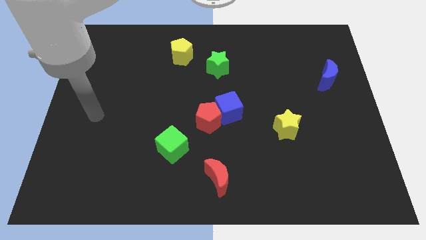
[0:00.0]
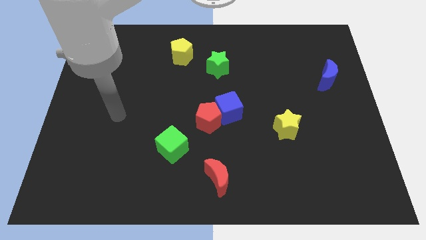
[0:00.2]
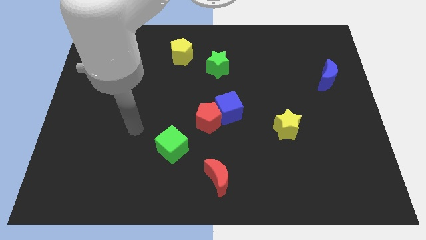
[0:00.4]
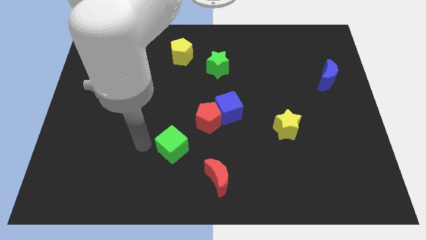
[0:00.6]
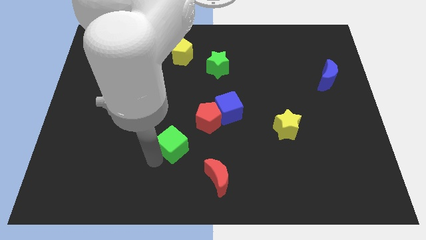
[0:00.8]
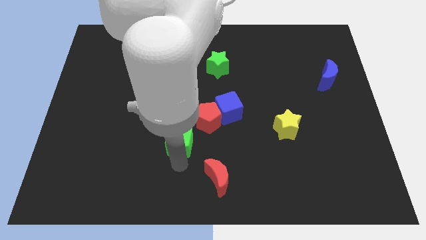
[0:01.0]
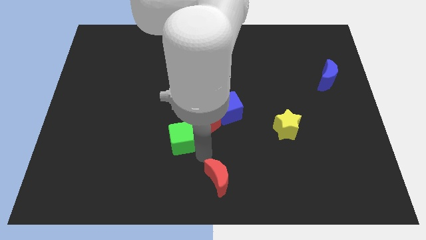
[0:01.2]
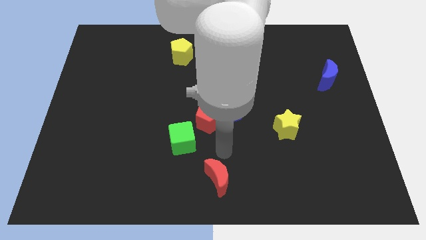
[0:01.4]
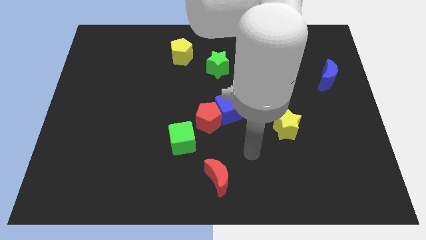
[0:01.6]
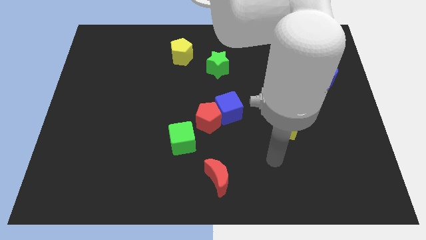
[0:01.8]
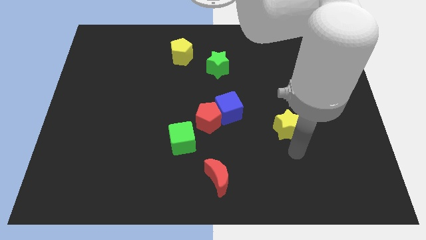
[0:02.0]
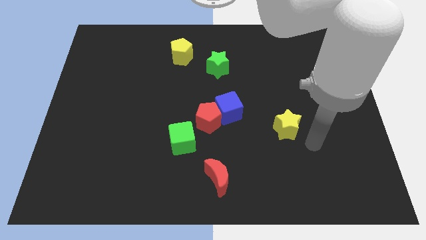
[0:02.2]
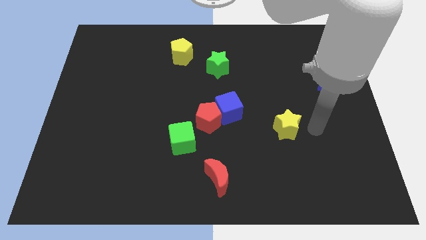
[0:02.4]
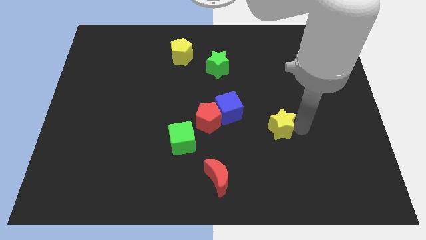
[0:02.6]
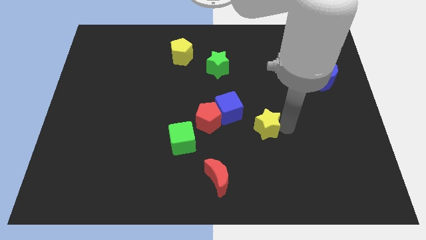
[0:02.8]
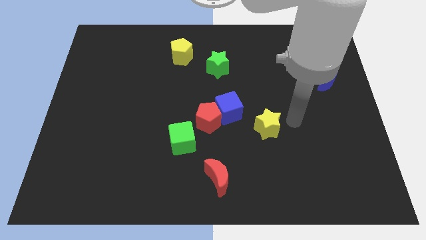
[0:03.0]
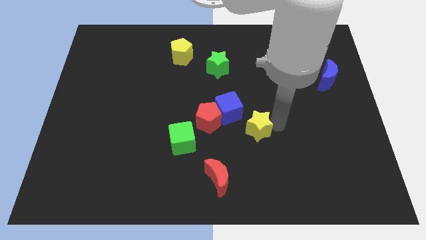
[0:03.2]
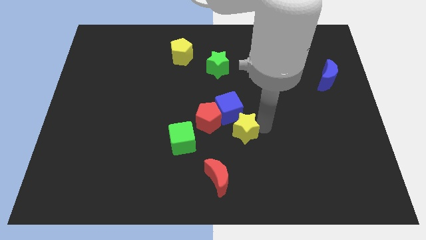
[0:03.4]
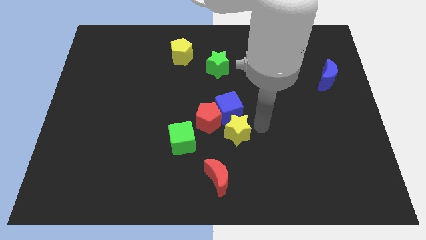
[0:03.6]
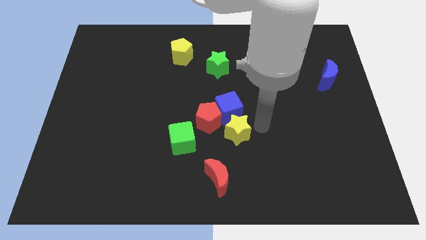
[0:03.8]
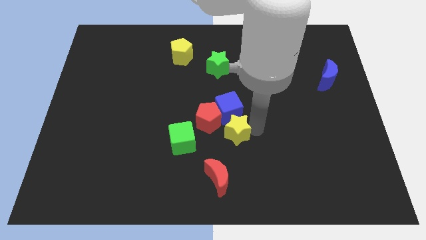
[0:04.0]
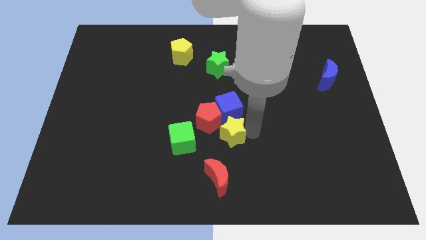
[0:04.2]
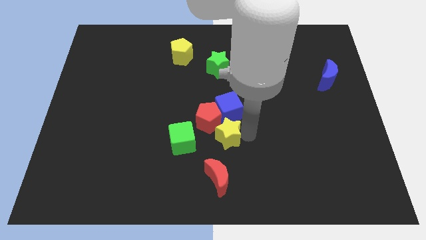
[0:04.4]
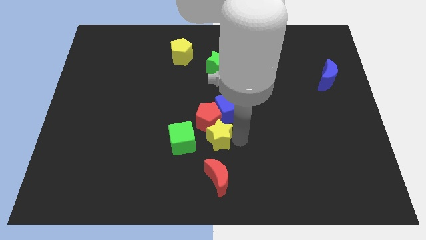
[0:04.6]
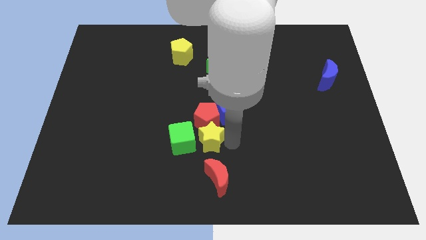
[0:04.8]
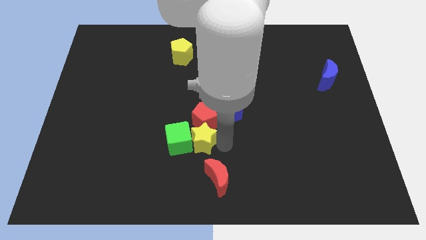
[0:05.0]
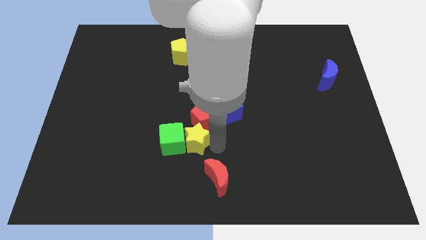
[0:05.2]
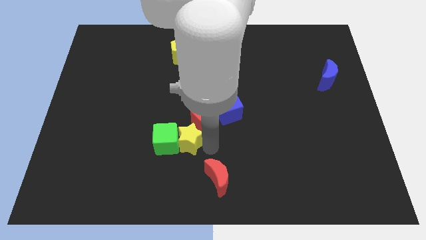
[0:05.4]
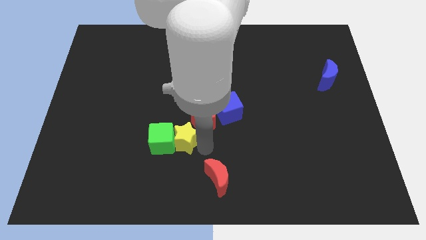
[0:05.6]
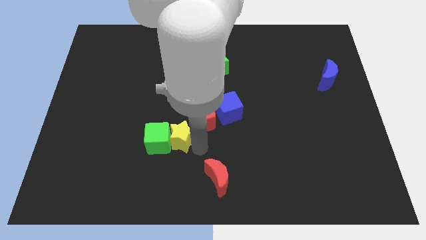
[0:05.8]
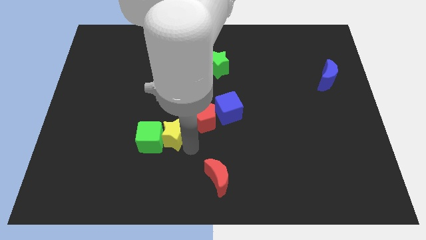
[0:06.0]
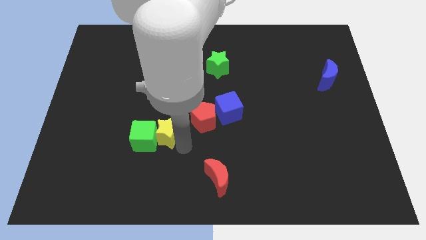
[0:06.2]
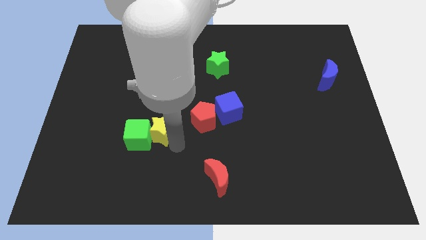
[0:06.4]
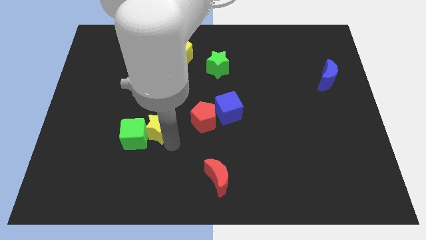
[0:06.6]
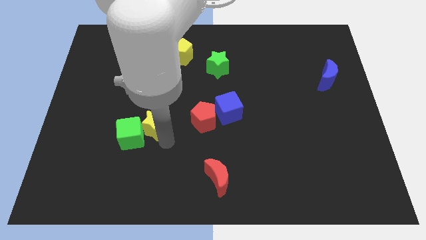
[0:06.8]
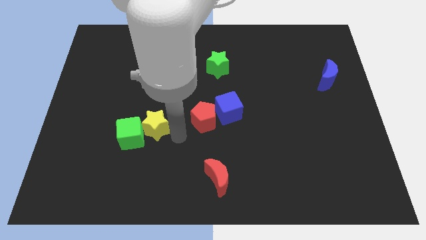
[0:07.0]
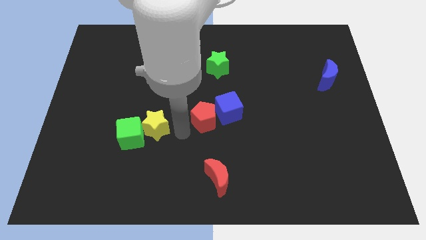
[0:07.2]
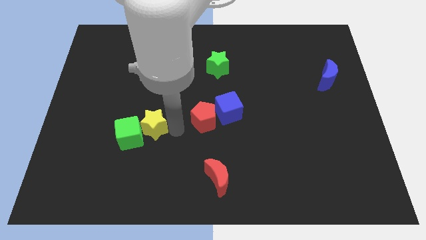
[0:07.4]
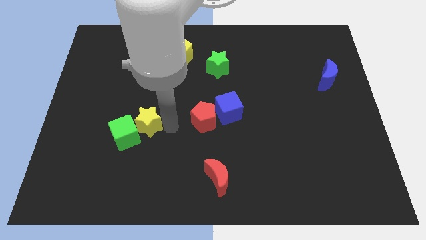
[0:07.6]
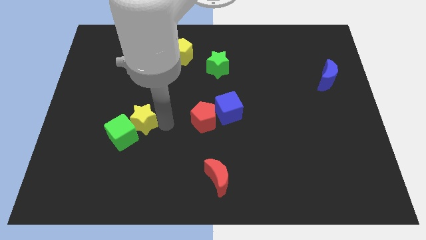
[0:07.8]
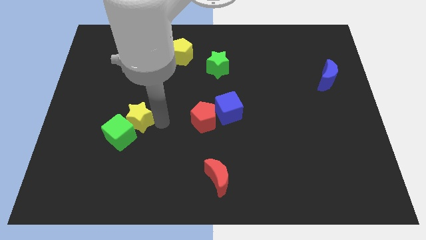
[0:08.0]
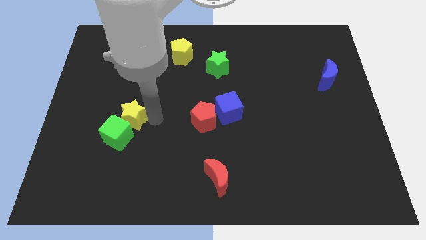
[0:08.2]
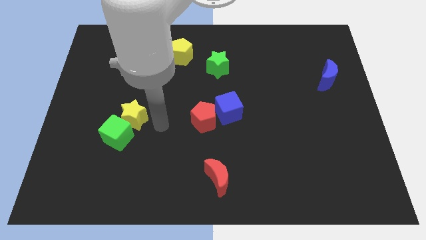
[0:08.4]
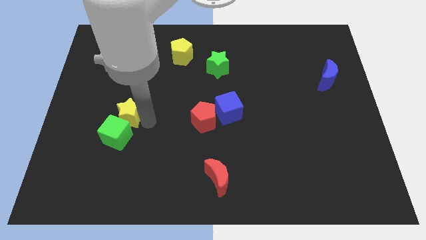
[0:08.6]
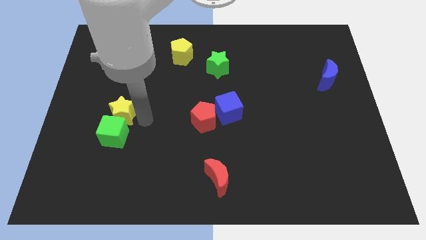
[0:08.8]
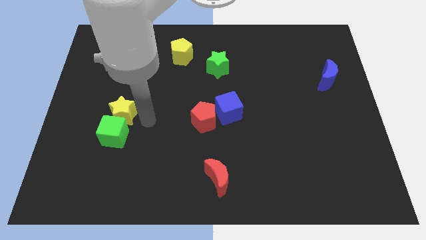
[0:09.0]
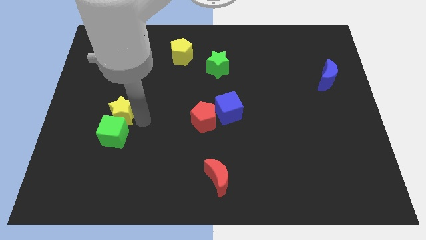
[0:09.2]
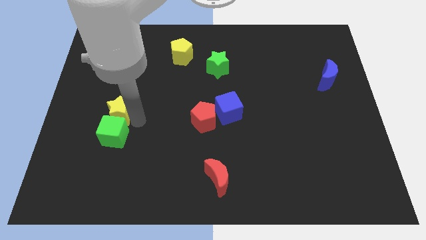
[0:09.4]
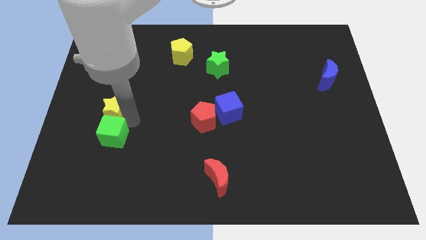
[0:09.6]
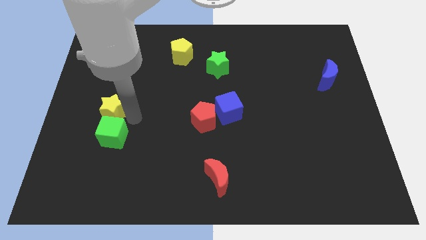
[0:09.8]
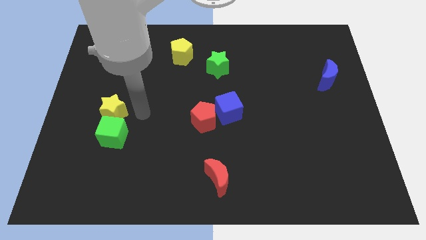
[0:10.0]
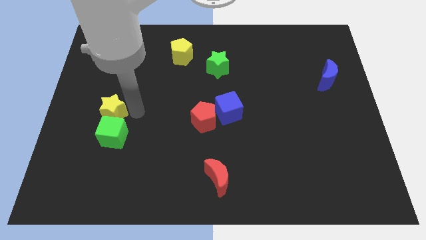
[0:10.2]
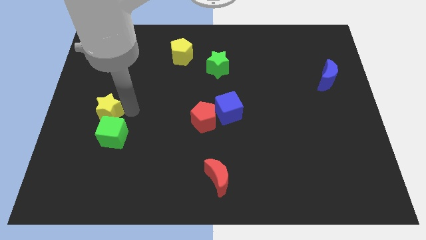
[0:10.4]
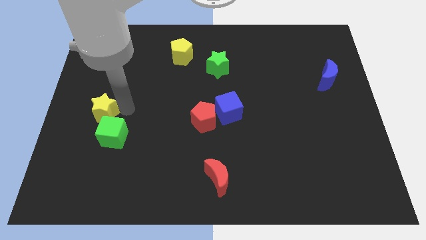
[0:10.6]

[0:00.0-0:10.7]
push the yellow star to the left side of the board
